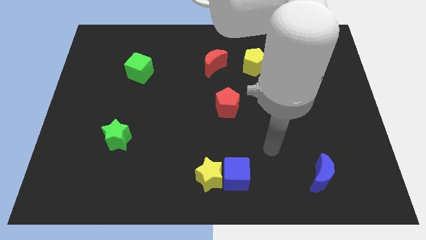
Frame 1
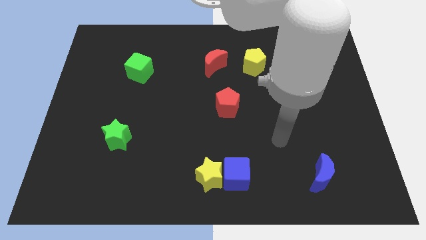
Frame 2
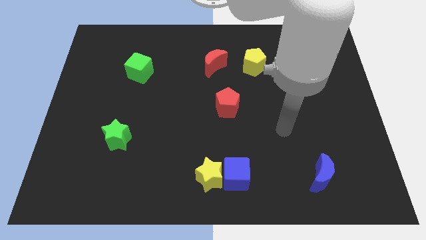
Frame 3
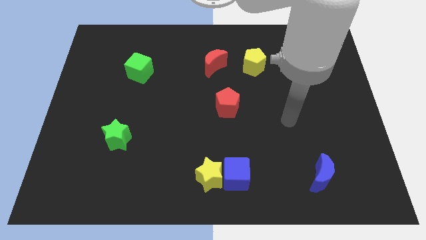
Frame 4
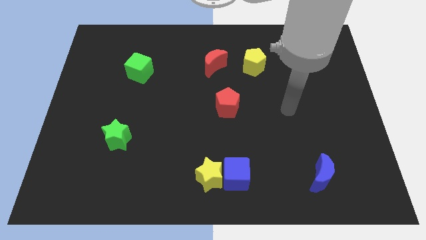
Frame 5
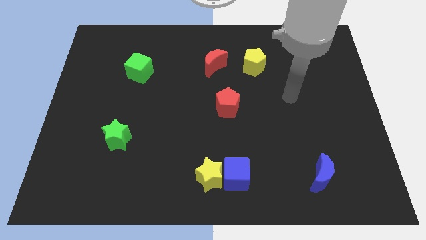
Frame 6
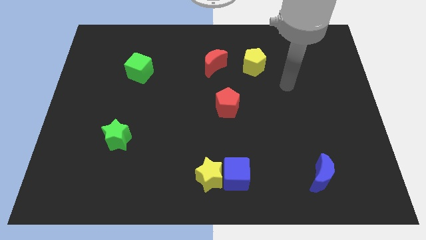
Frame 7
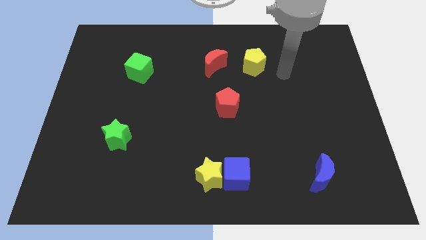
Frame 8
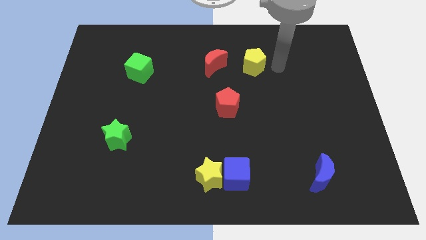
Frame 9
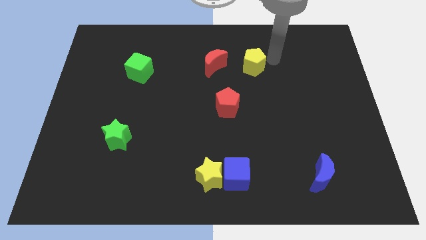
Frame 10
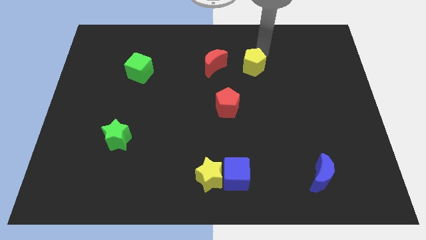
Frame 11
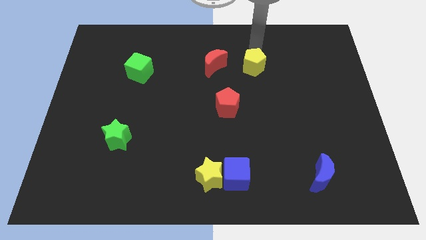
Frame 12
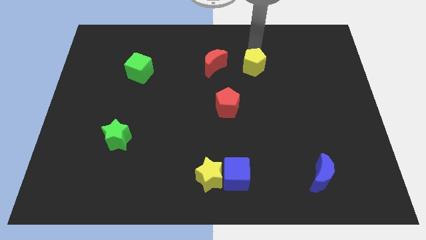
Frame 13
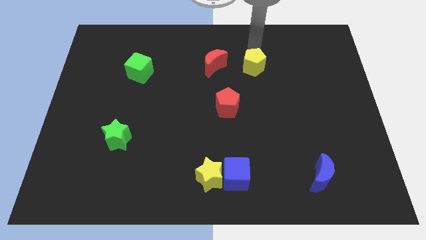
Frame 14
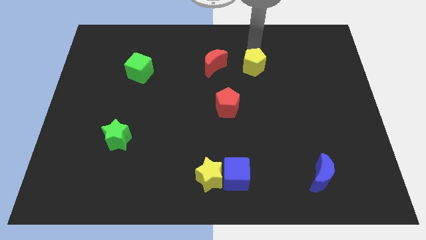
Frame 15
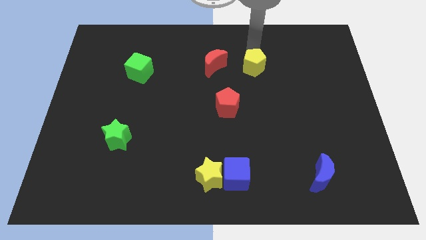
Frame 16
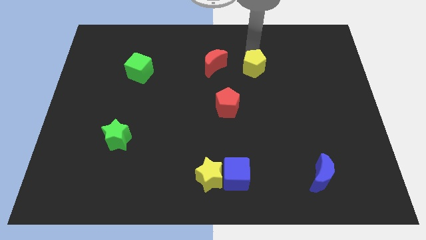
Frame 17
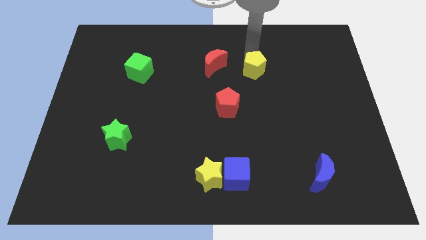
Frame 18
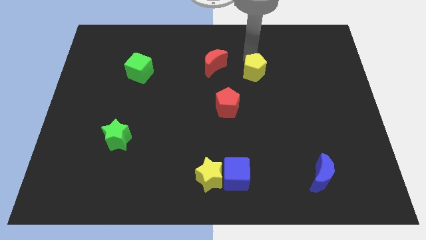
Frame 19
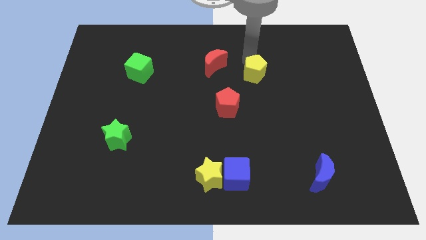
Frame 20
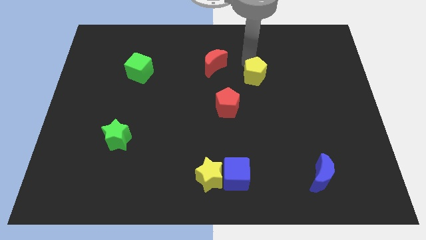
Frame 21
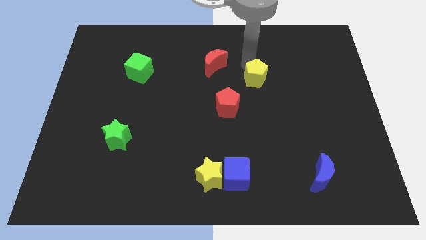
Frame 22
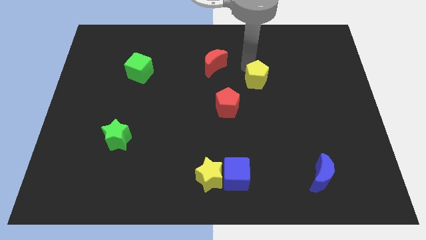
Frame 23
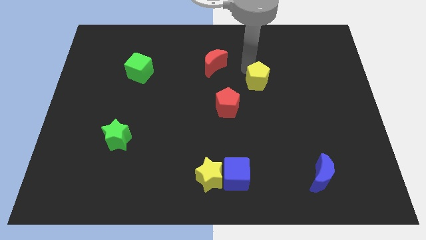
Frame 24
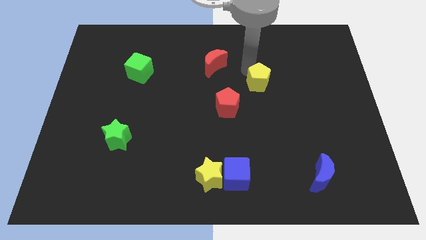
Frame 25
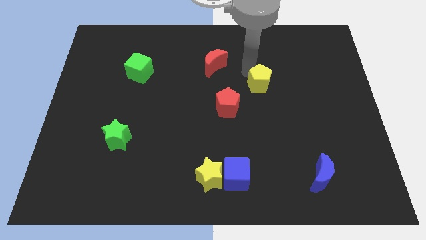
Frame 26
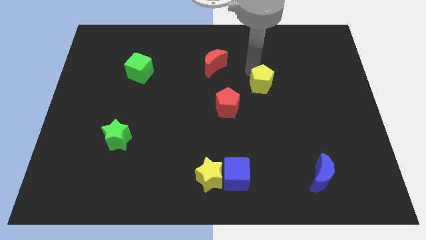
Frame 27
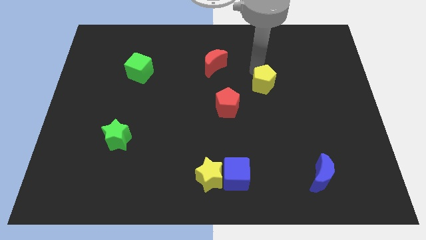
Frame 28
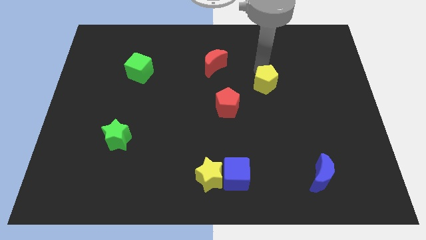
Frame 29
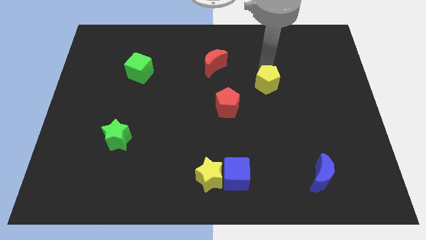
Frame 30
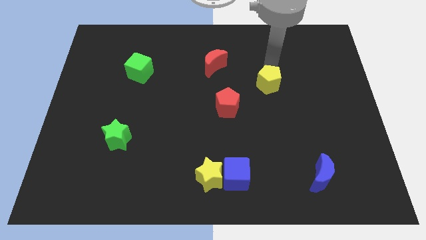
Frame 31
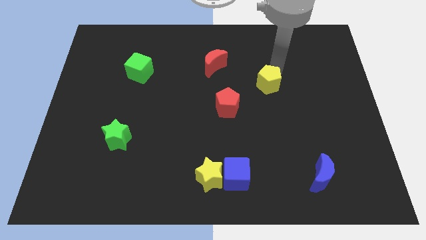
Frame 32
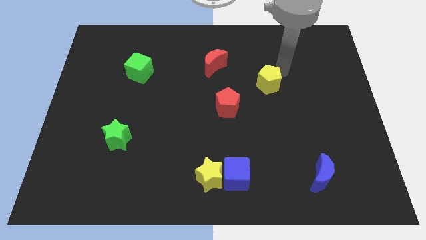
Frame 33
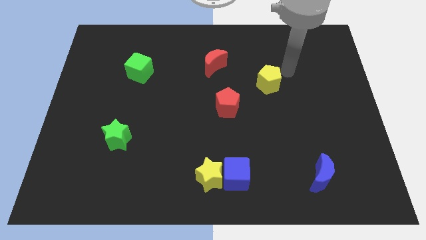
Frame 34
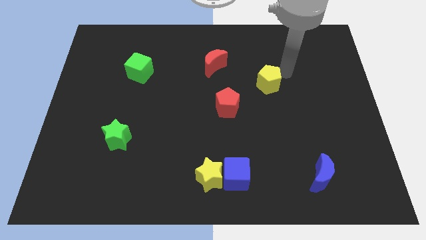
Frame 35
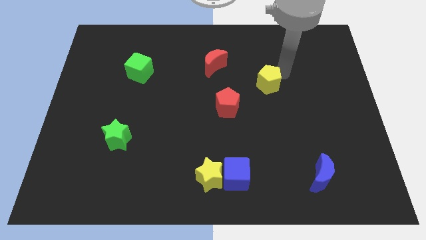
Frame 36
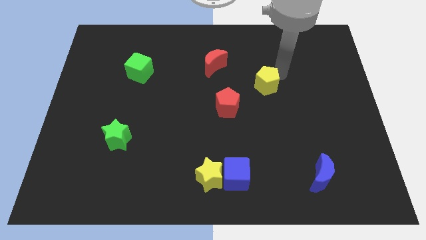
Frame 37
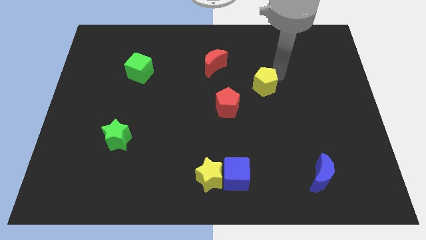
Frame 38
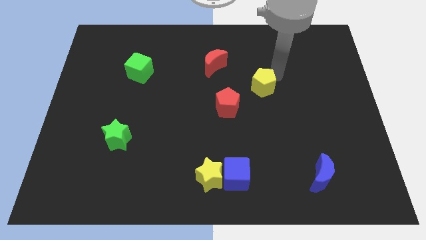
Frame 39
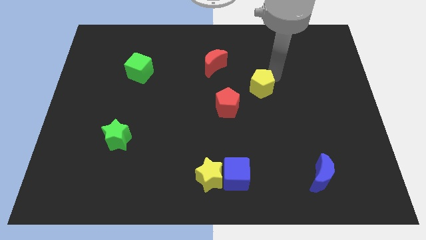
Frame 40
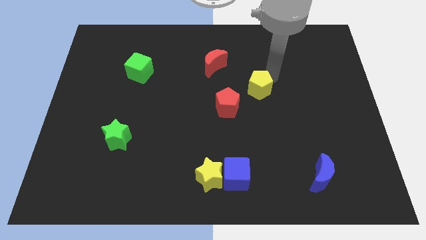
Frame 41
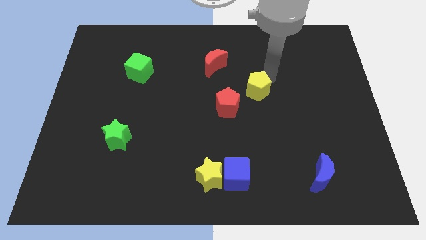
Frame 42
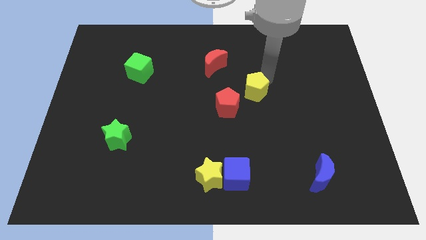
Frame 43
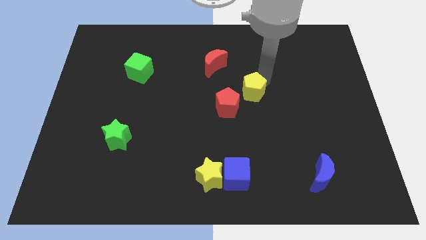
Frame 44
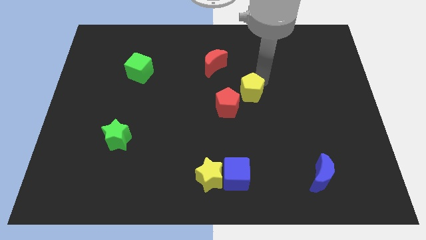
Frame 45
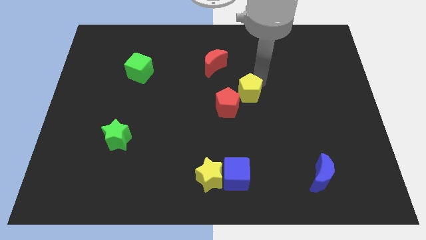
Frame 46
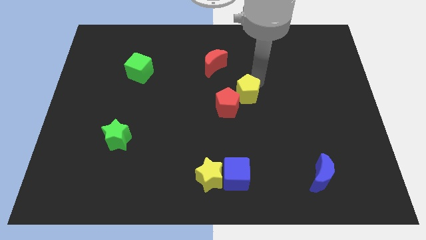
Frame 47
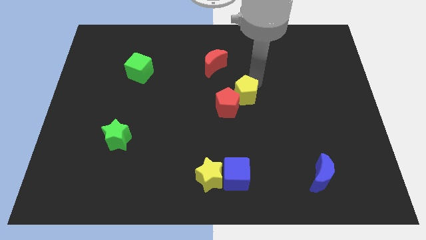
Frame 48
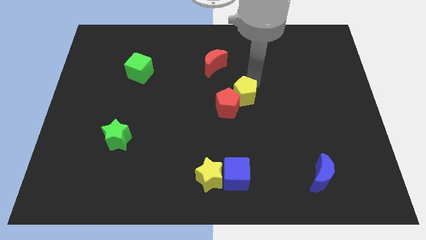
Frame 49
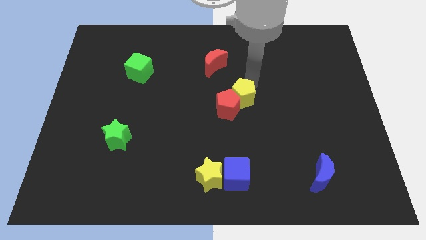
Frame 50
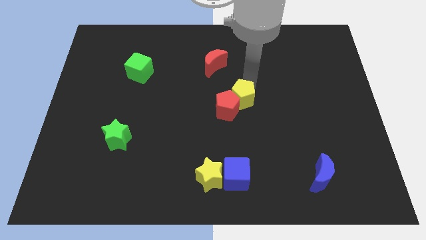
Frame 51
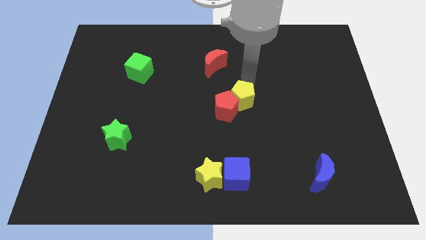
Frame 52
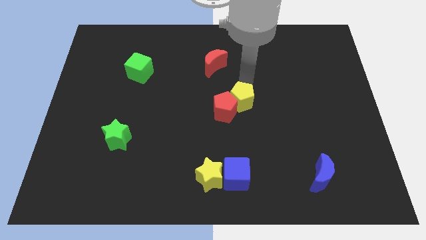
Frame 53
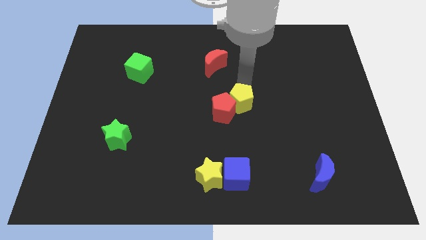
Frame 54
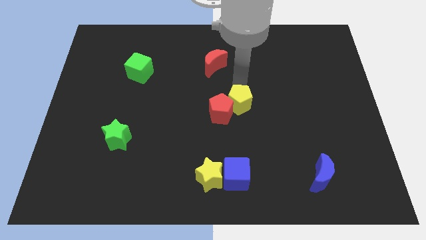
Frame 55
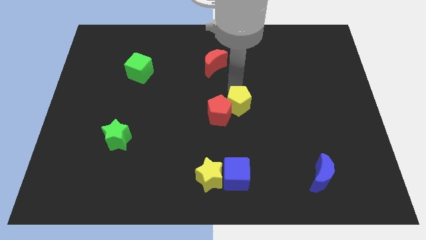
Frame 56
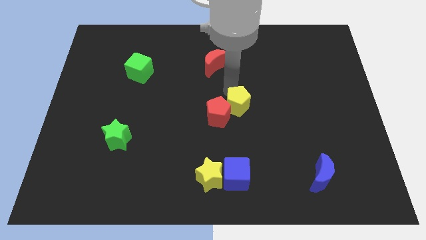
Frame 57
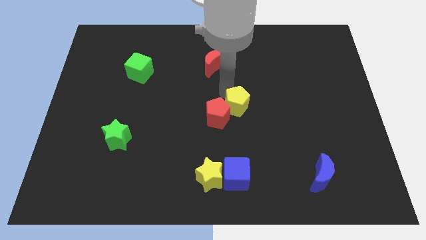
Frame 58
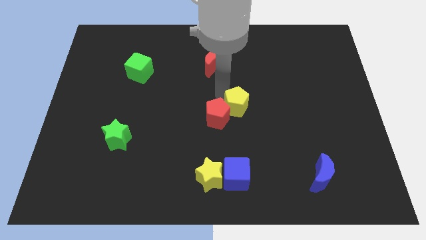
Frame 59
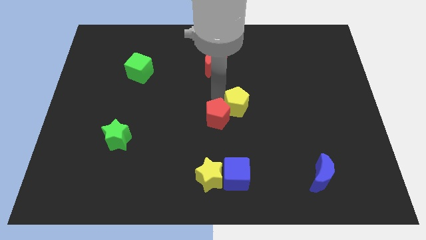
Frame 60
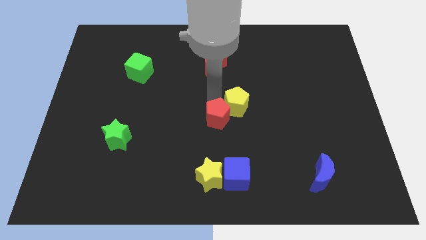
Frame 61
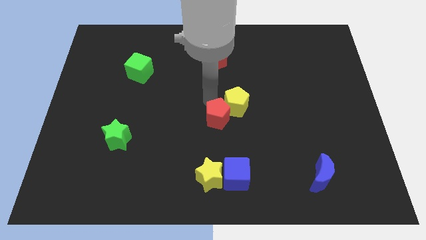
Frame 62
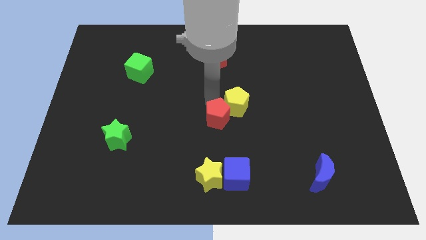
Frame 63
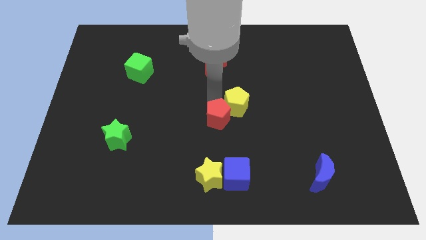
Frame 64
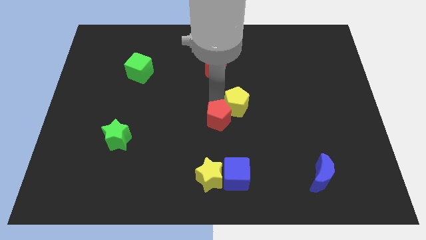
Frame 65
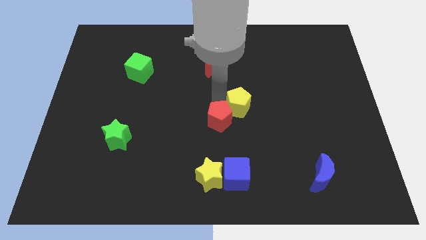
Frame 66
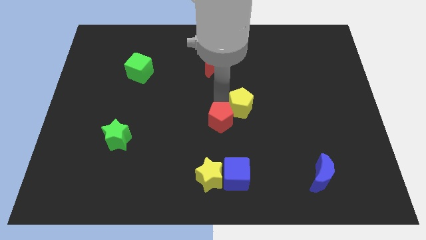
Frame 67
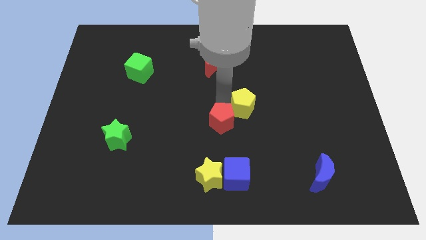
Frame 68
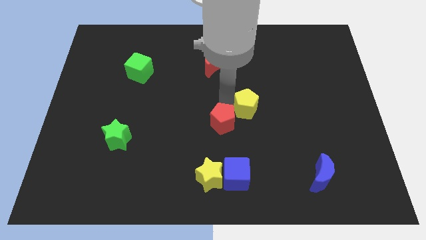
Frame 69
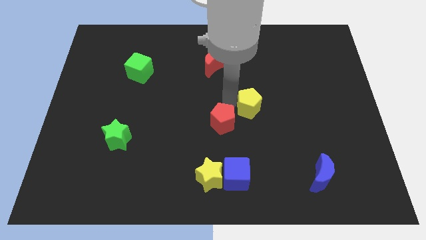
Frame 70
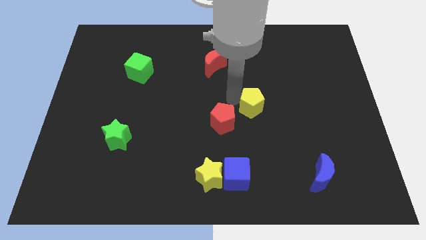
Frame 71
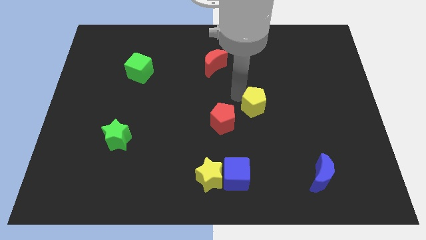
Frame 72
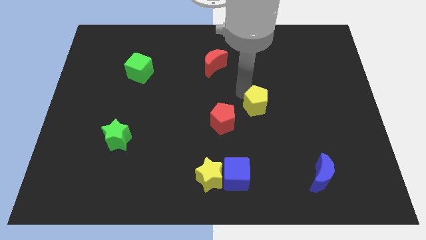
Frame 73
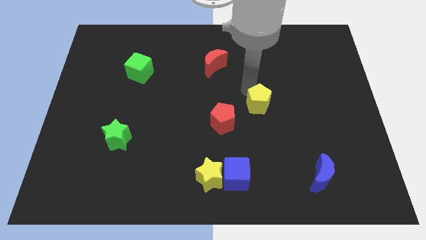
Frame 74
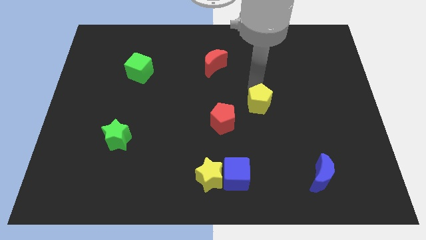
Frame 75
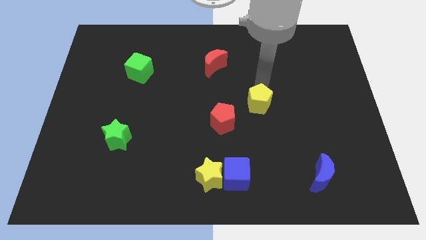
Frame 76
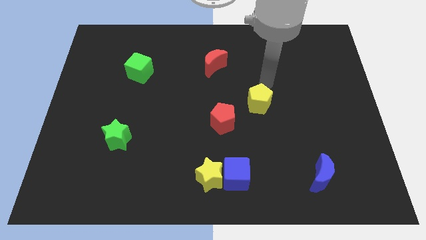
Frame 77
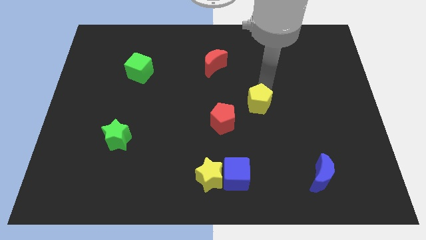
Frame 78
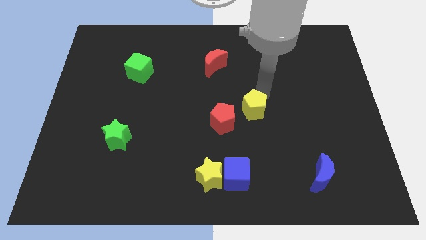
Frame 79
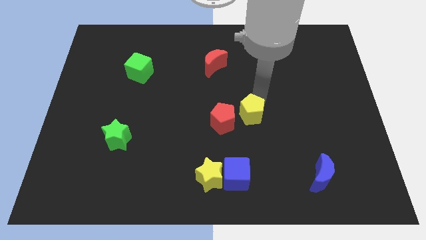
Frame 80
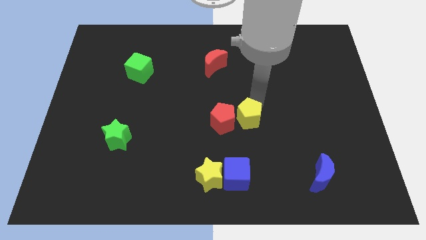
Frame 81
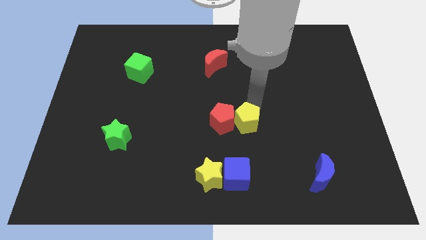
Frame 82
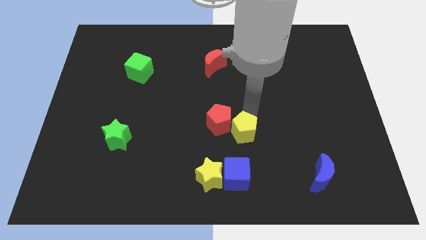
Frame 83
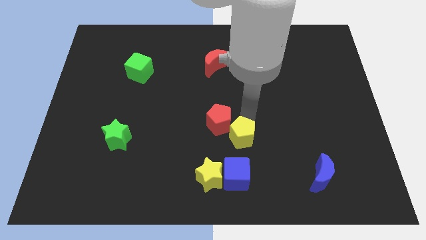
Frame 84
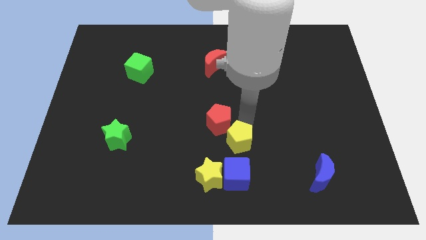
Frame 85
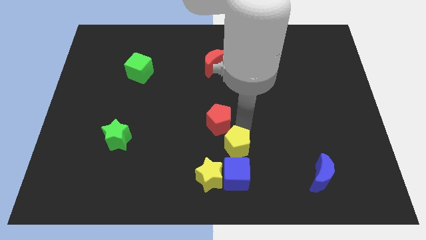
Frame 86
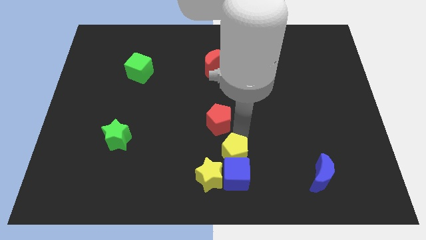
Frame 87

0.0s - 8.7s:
move the yellow pentagon to the blue cube
